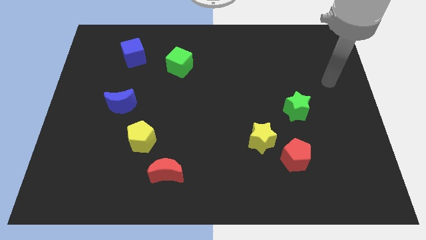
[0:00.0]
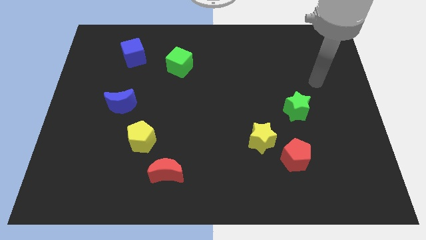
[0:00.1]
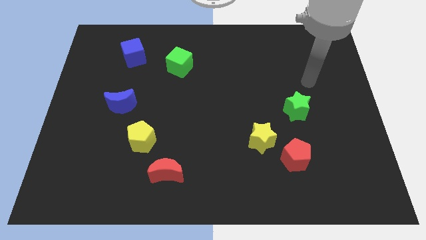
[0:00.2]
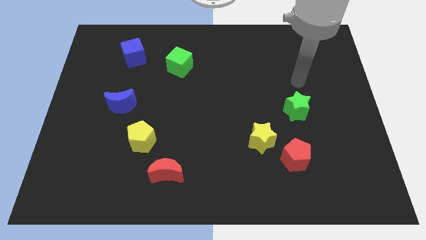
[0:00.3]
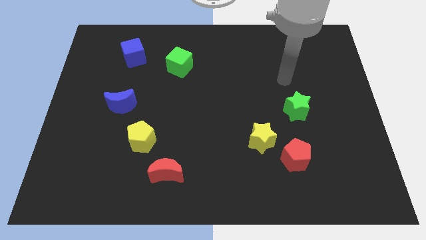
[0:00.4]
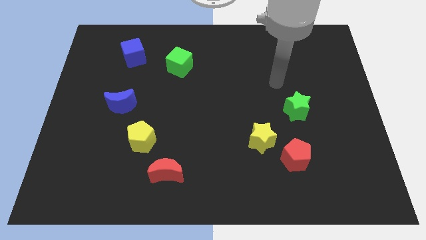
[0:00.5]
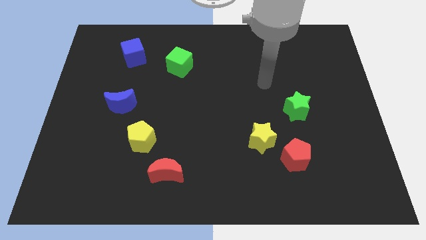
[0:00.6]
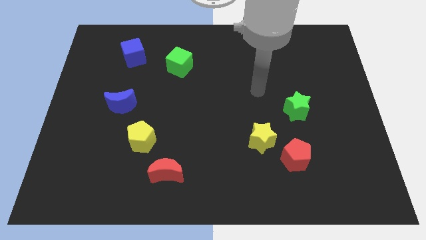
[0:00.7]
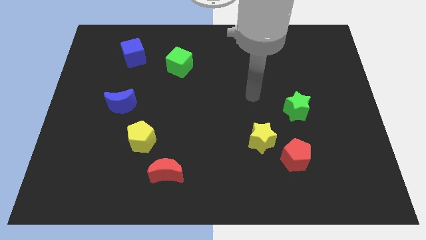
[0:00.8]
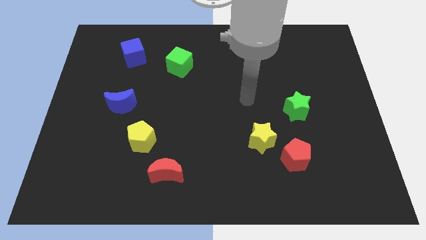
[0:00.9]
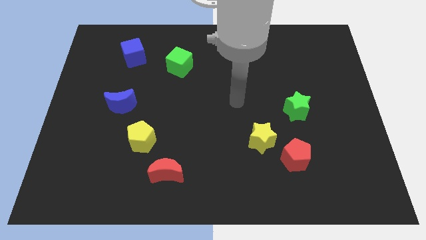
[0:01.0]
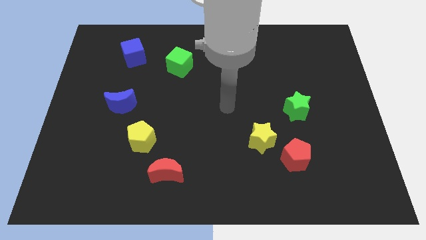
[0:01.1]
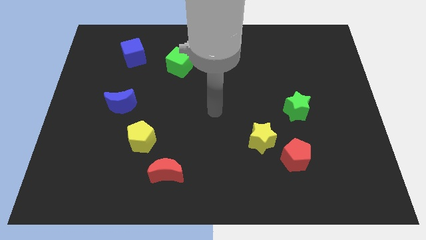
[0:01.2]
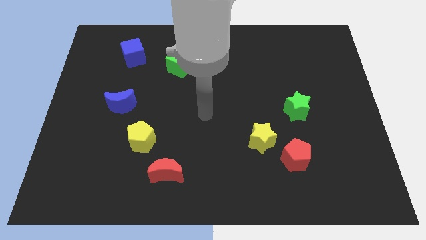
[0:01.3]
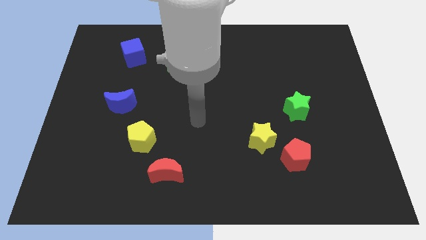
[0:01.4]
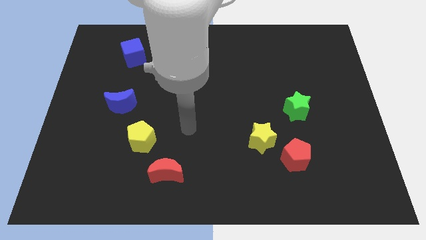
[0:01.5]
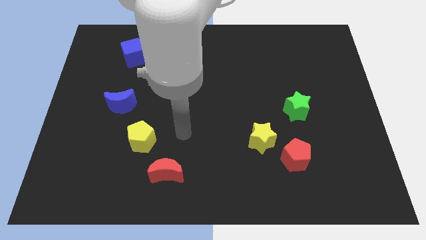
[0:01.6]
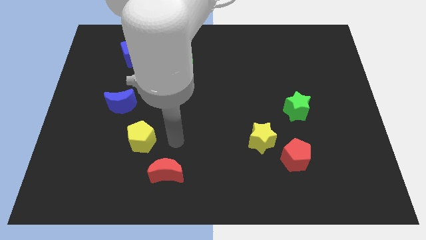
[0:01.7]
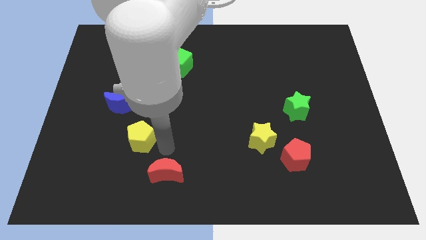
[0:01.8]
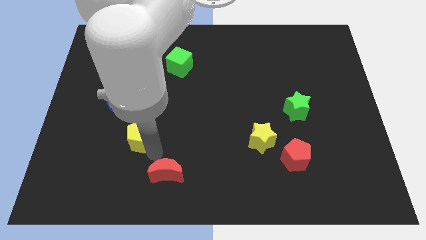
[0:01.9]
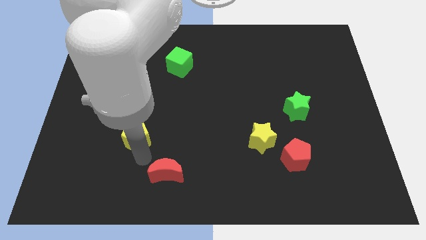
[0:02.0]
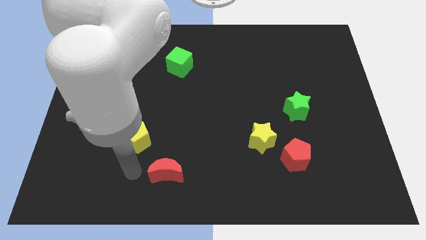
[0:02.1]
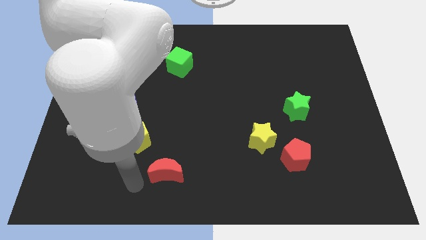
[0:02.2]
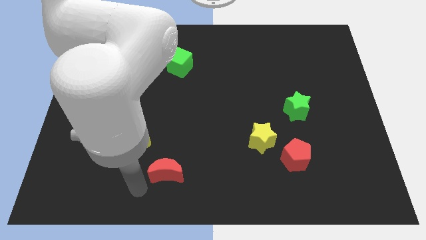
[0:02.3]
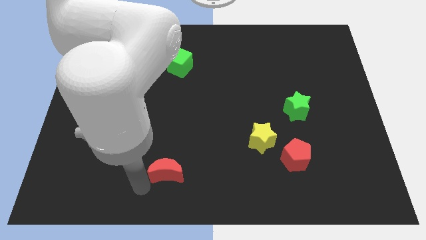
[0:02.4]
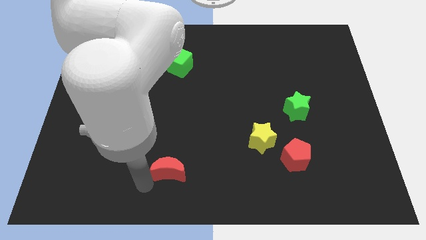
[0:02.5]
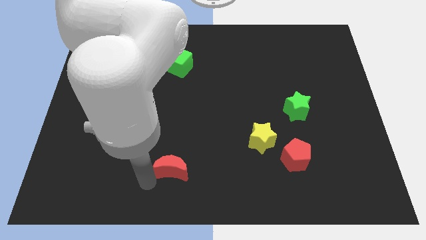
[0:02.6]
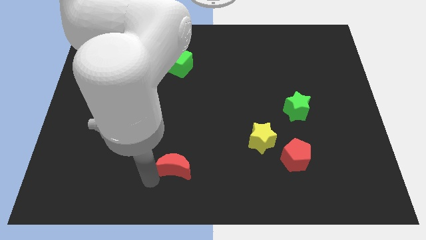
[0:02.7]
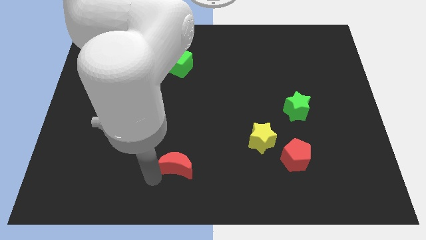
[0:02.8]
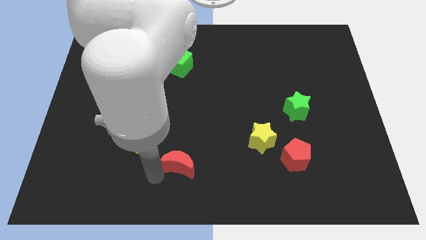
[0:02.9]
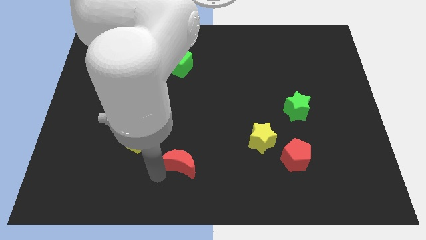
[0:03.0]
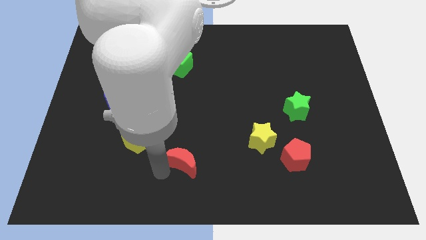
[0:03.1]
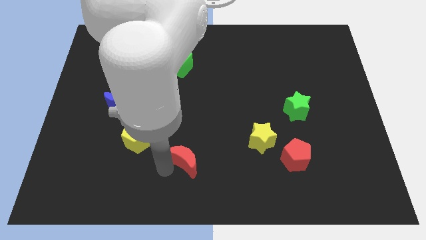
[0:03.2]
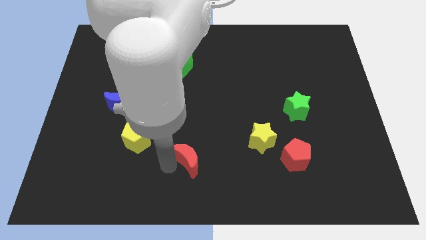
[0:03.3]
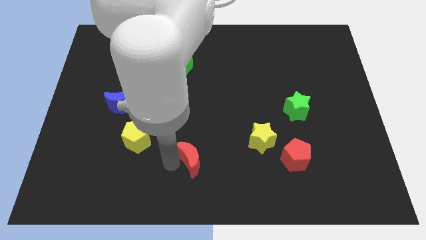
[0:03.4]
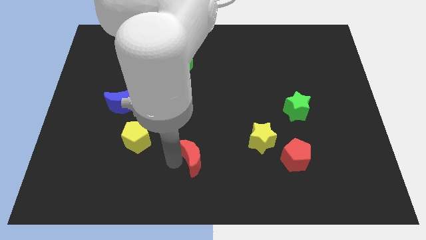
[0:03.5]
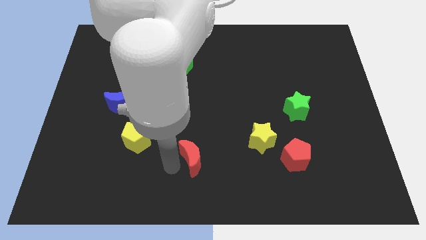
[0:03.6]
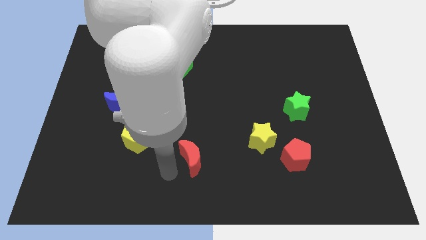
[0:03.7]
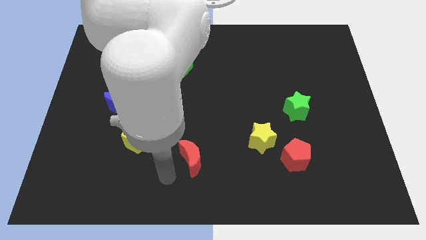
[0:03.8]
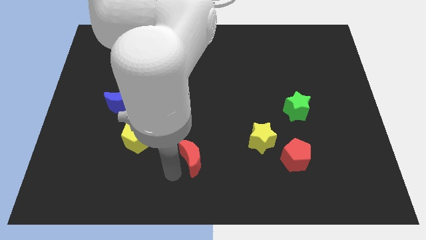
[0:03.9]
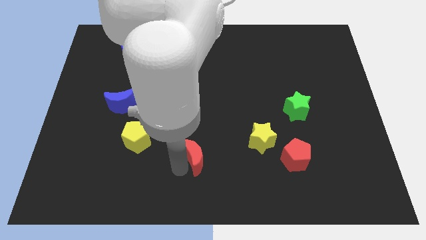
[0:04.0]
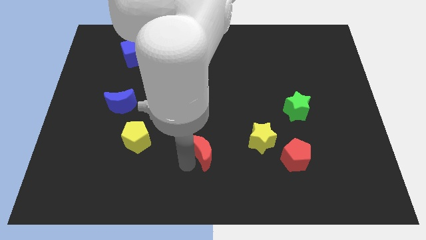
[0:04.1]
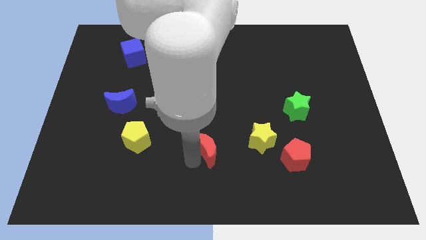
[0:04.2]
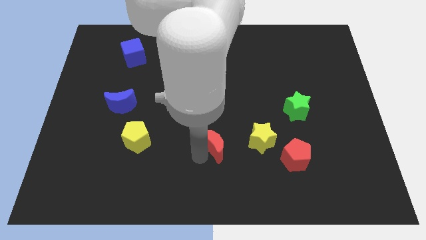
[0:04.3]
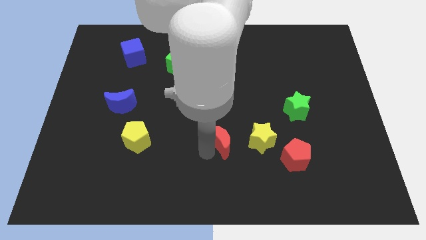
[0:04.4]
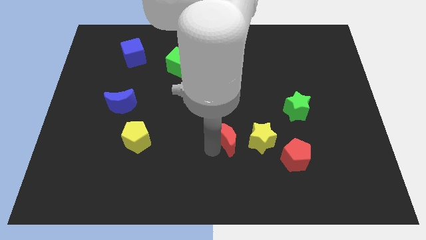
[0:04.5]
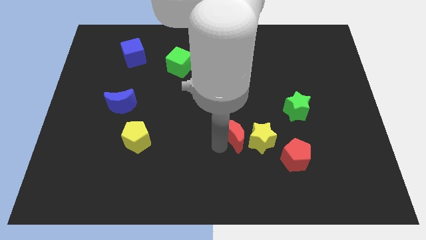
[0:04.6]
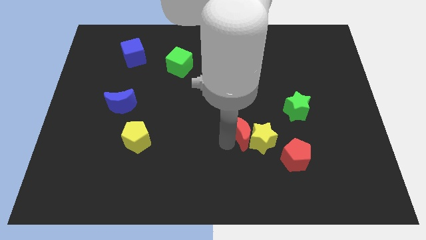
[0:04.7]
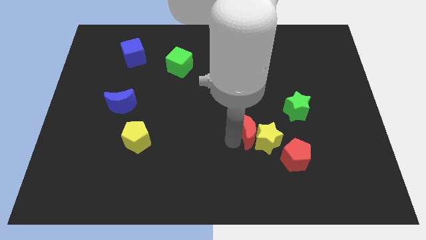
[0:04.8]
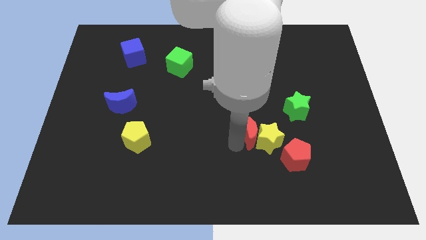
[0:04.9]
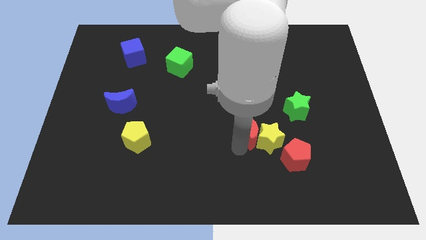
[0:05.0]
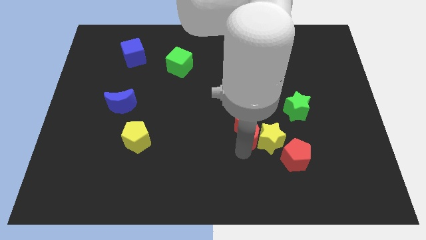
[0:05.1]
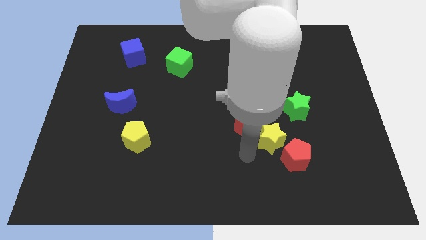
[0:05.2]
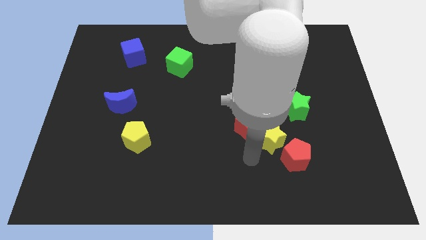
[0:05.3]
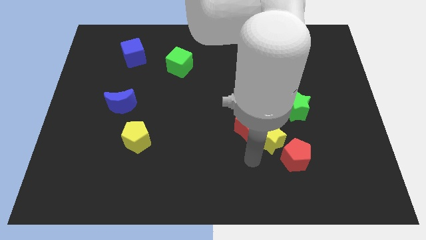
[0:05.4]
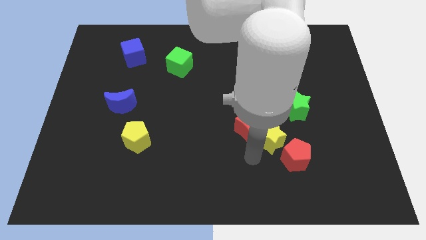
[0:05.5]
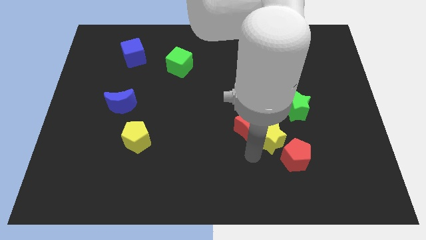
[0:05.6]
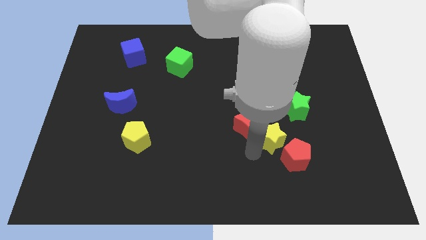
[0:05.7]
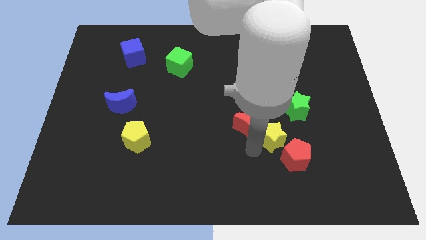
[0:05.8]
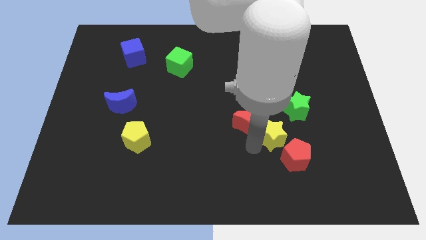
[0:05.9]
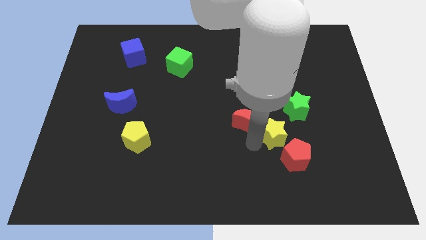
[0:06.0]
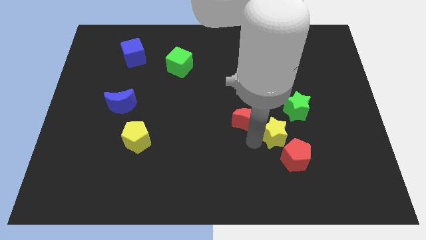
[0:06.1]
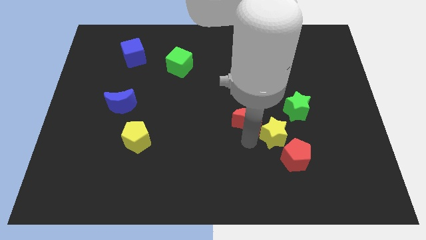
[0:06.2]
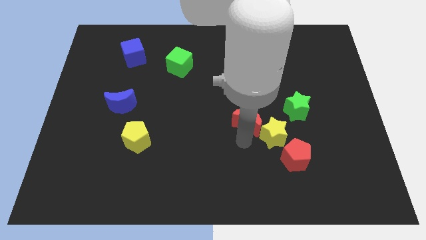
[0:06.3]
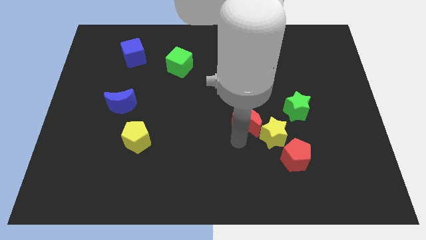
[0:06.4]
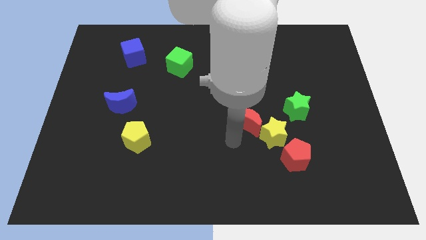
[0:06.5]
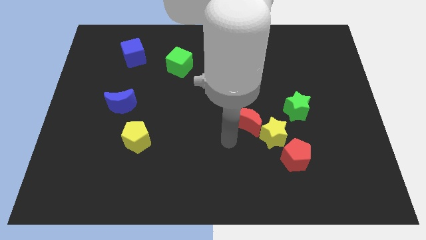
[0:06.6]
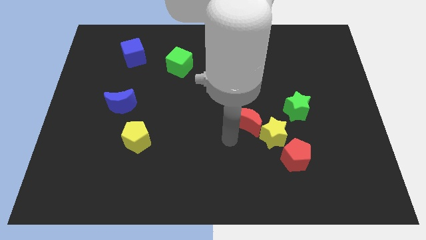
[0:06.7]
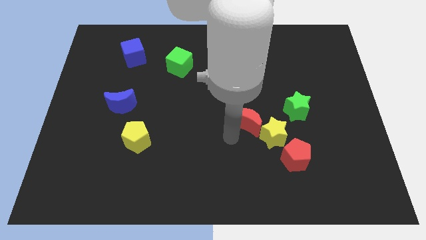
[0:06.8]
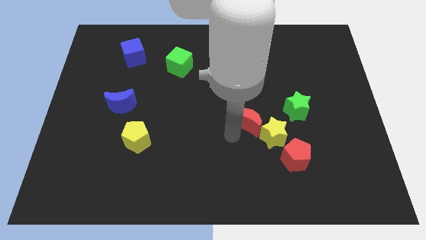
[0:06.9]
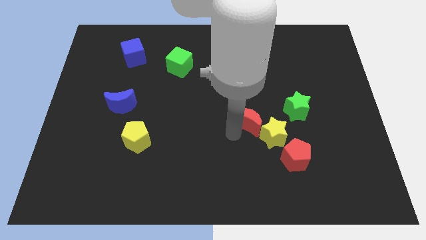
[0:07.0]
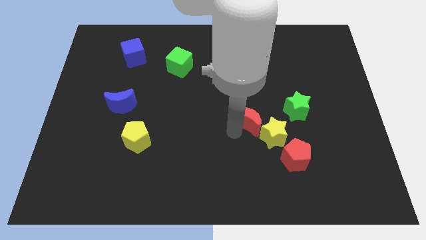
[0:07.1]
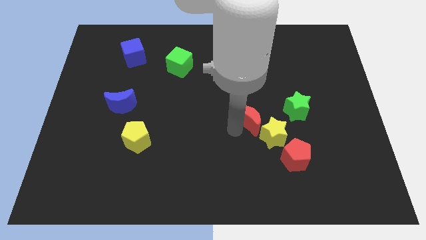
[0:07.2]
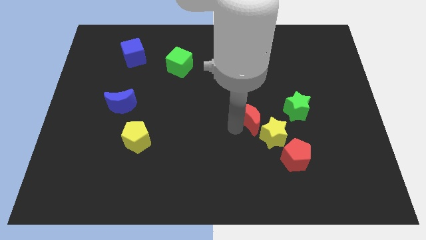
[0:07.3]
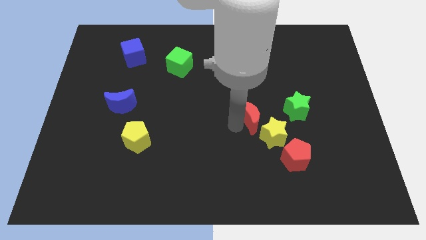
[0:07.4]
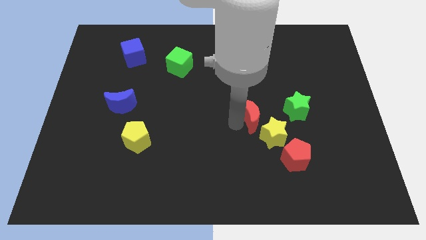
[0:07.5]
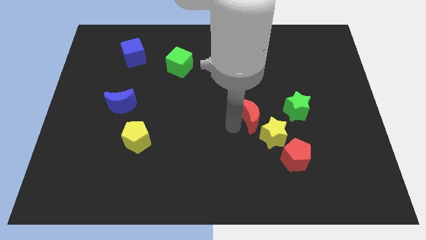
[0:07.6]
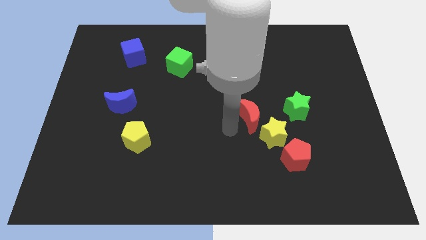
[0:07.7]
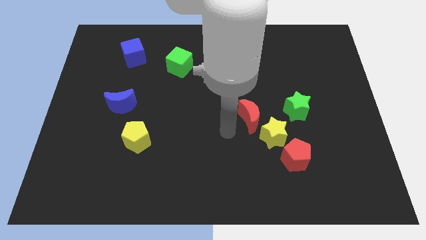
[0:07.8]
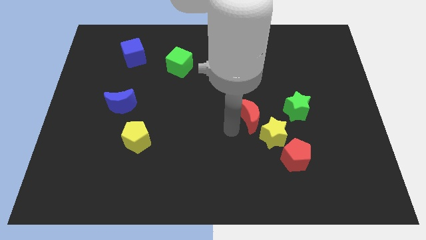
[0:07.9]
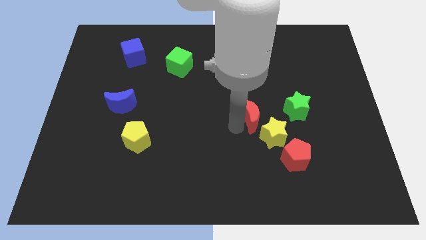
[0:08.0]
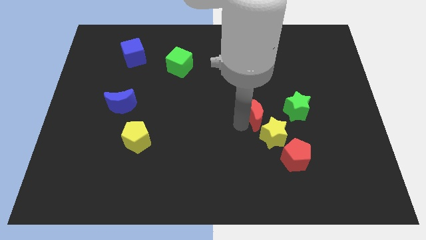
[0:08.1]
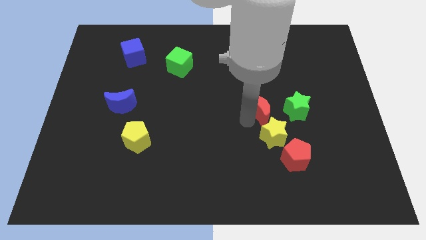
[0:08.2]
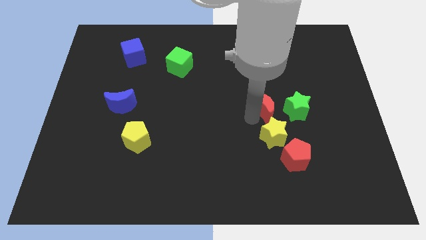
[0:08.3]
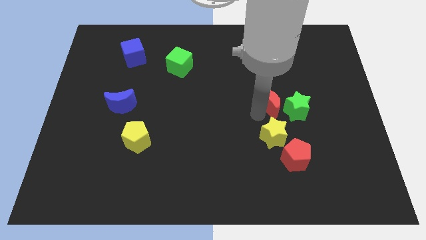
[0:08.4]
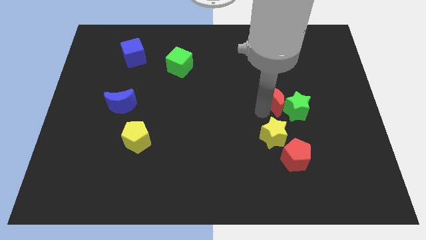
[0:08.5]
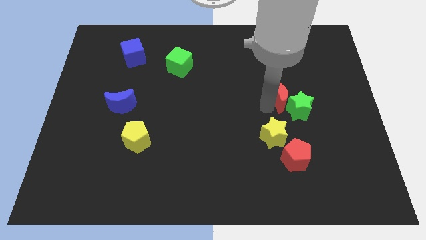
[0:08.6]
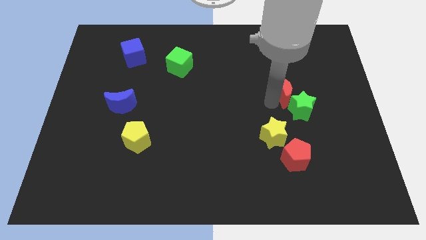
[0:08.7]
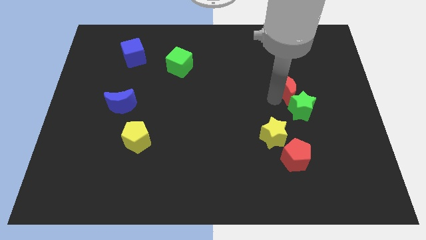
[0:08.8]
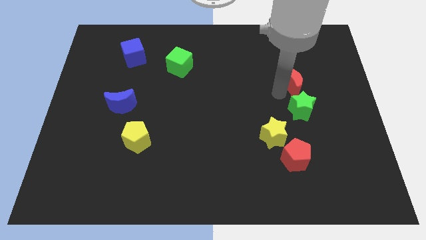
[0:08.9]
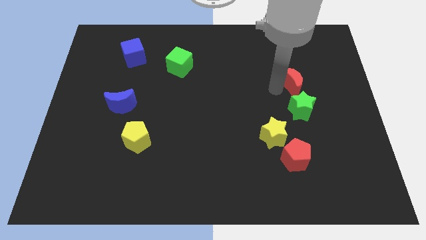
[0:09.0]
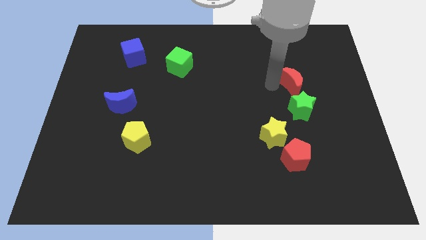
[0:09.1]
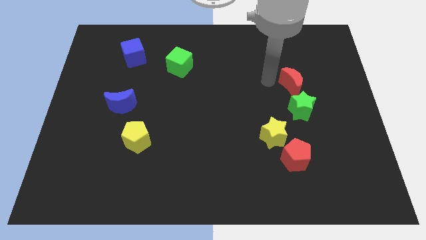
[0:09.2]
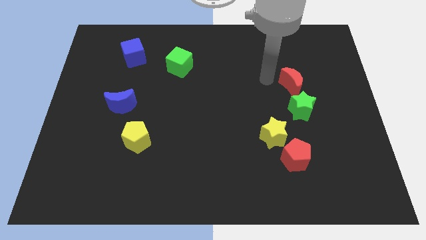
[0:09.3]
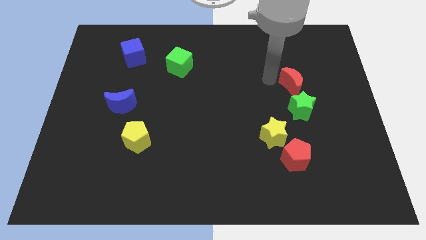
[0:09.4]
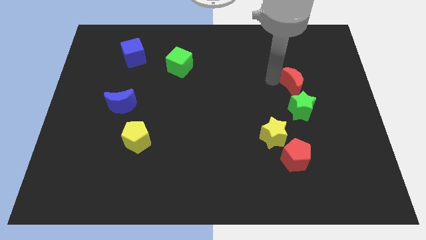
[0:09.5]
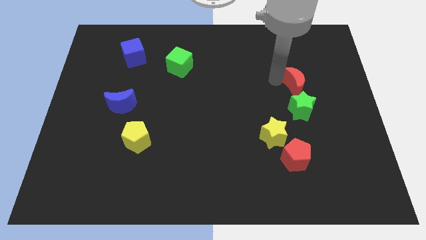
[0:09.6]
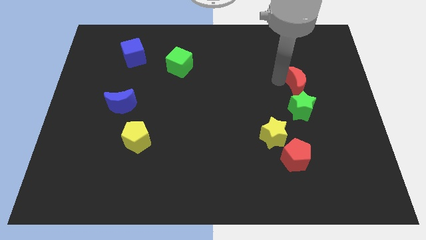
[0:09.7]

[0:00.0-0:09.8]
move the red moon to the top right side of the green star
